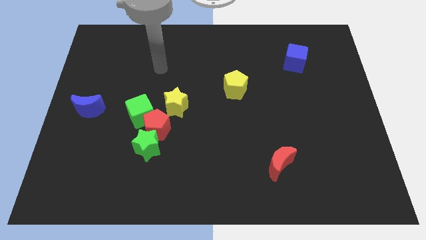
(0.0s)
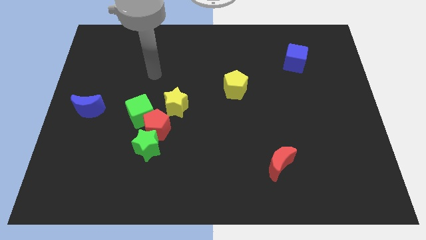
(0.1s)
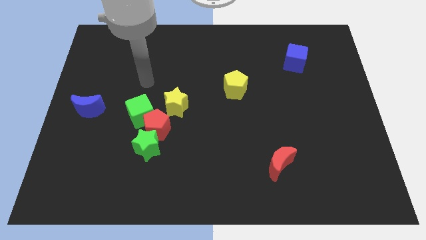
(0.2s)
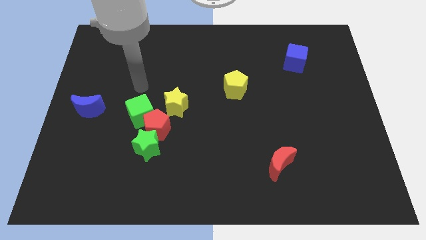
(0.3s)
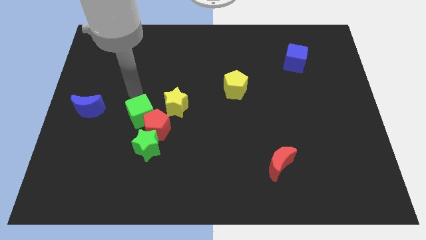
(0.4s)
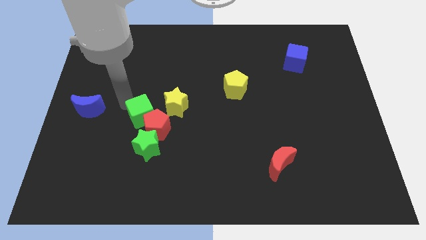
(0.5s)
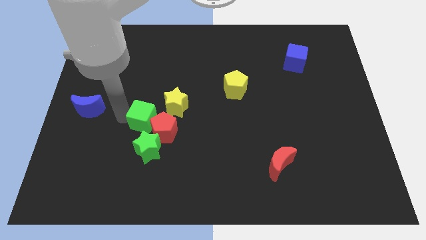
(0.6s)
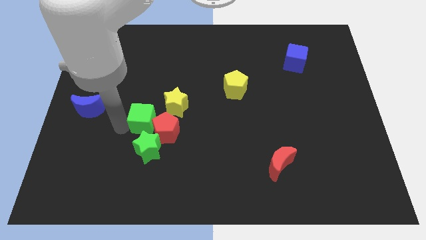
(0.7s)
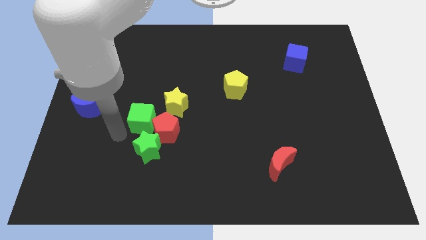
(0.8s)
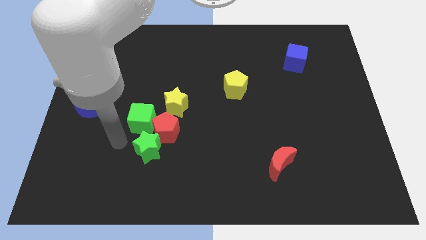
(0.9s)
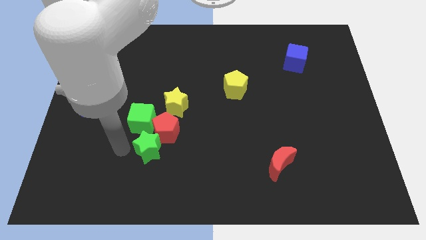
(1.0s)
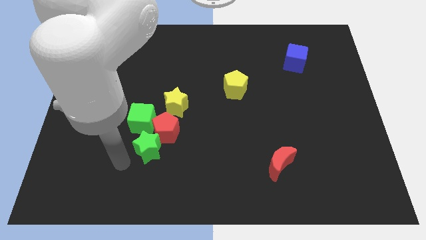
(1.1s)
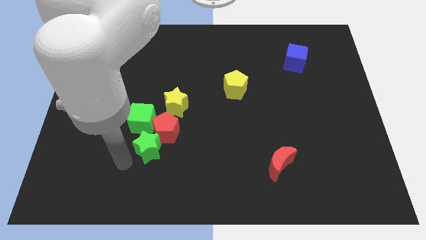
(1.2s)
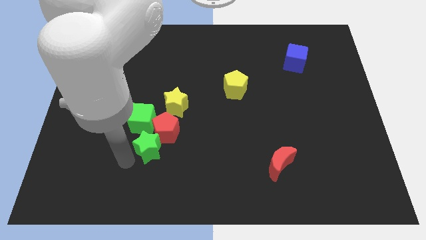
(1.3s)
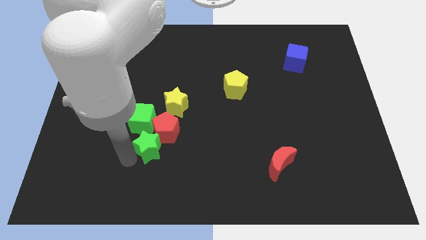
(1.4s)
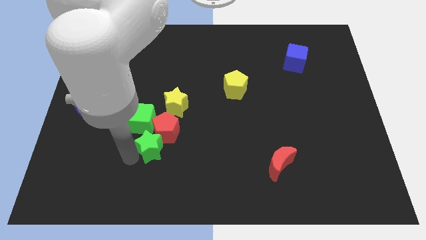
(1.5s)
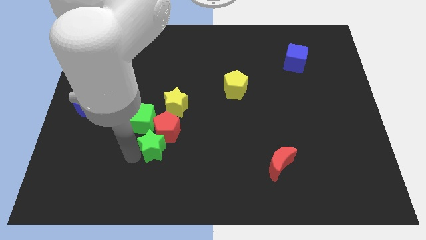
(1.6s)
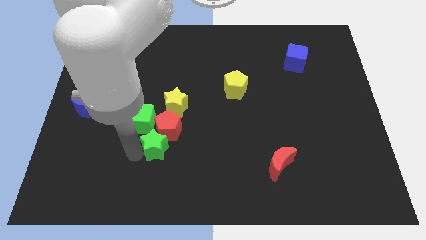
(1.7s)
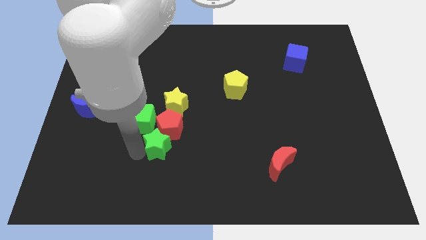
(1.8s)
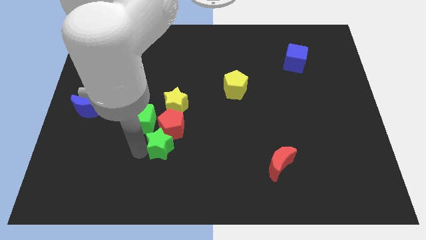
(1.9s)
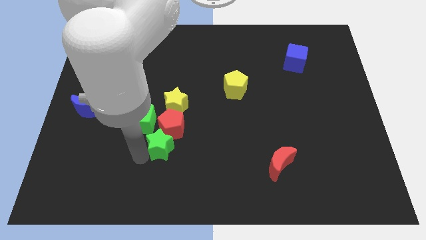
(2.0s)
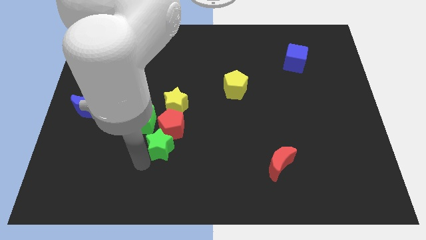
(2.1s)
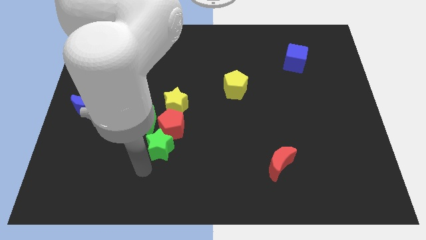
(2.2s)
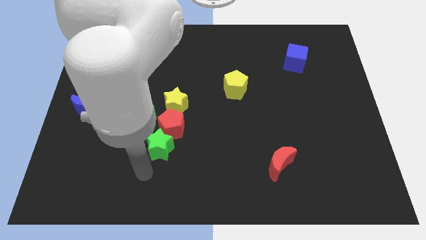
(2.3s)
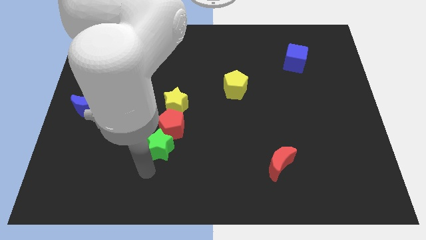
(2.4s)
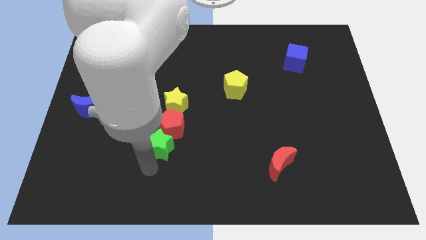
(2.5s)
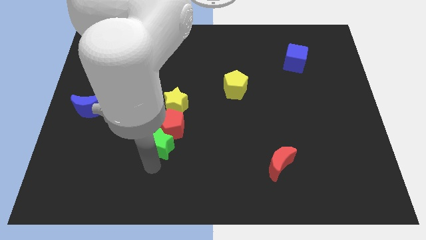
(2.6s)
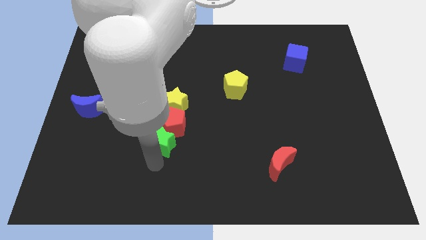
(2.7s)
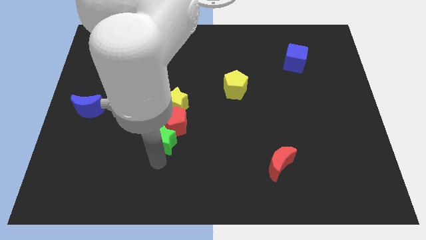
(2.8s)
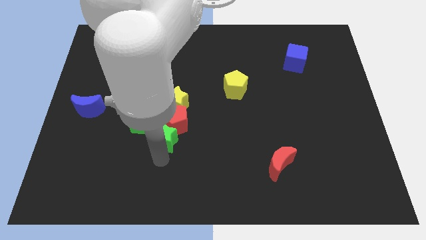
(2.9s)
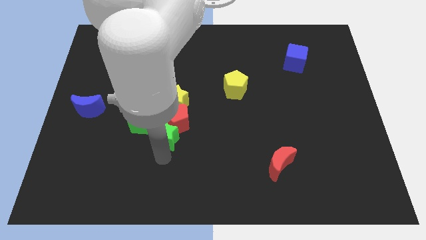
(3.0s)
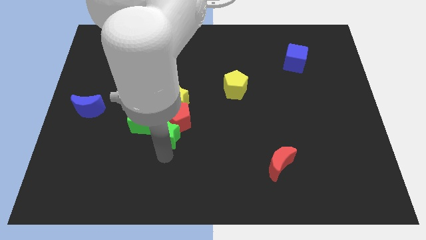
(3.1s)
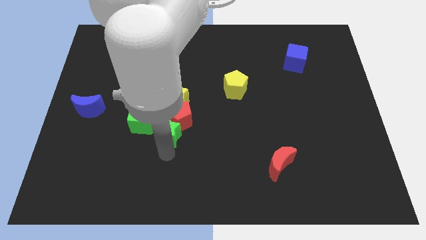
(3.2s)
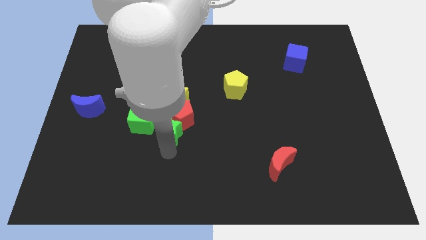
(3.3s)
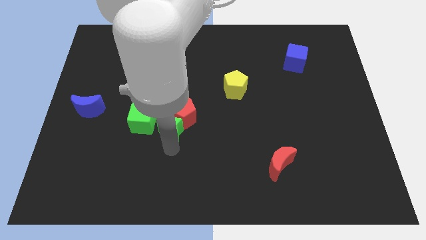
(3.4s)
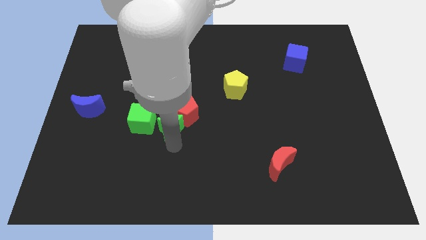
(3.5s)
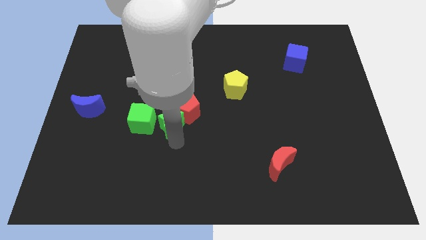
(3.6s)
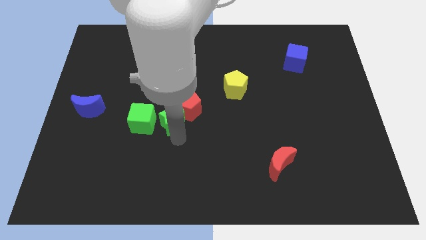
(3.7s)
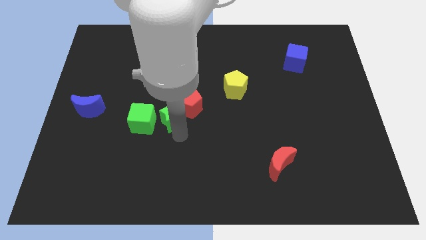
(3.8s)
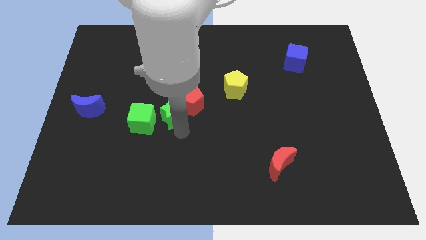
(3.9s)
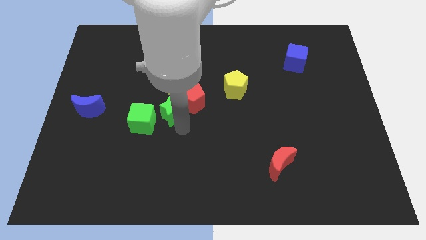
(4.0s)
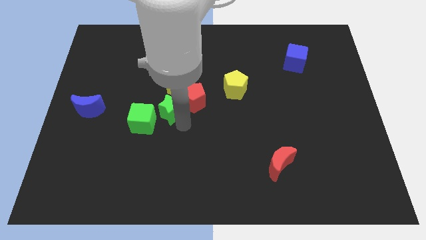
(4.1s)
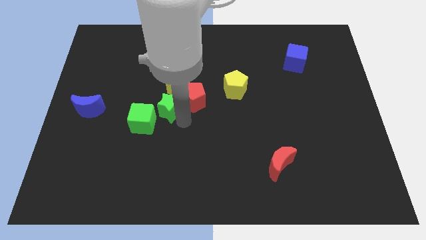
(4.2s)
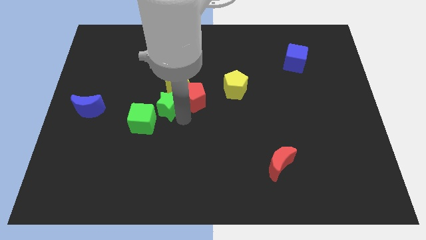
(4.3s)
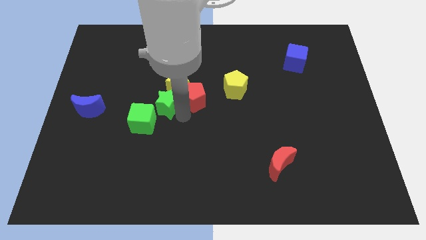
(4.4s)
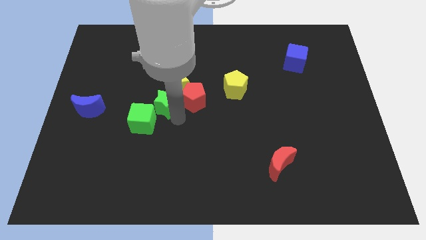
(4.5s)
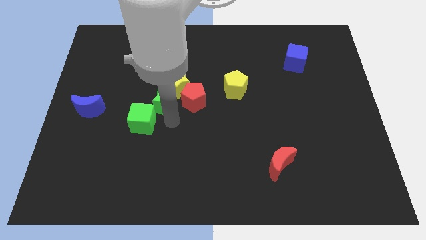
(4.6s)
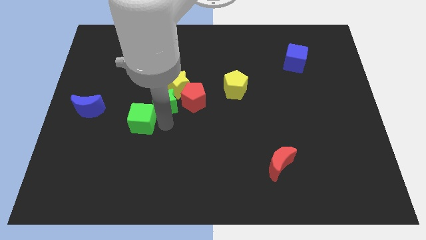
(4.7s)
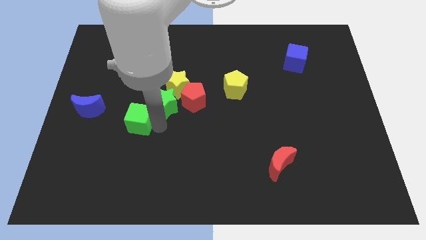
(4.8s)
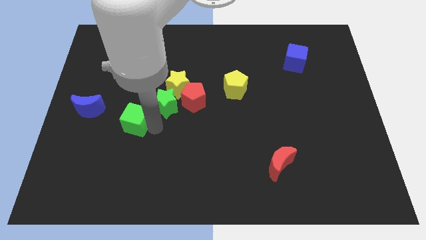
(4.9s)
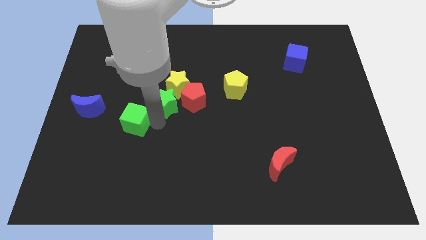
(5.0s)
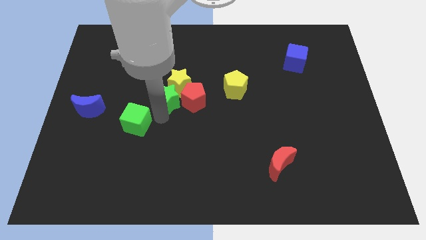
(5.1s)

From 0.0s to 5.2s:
move the green star to the yellow star

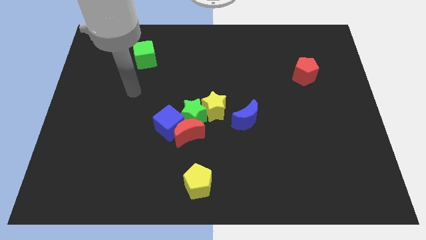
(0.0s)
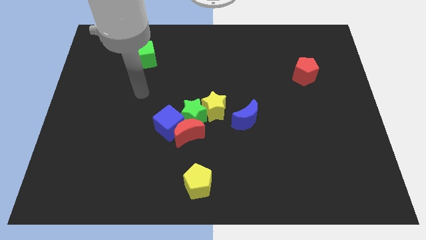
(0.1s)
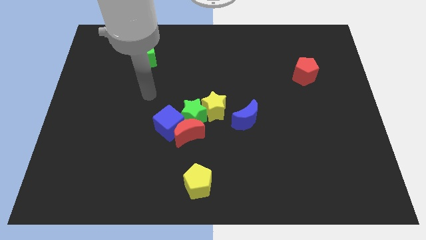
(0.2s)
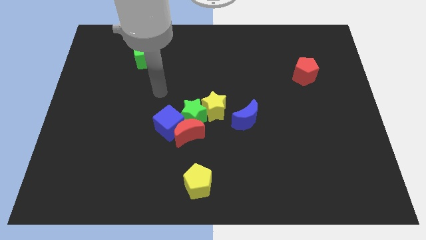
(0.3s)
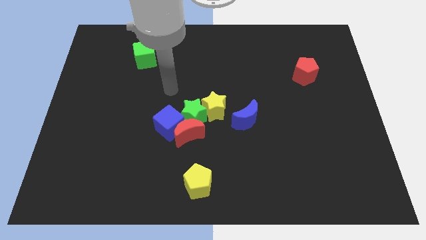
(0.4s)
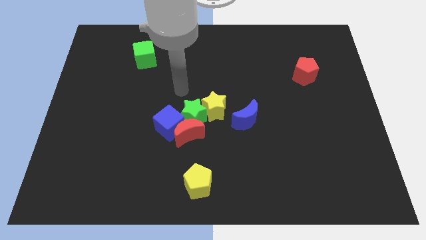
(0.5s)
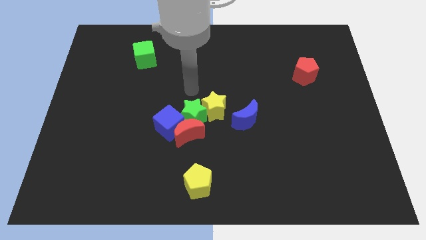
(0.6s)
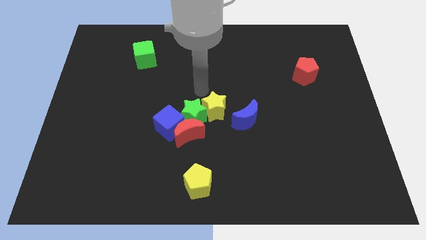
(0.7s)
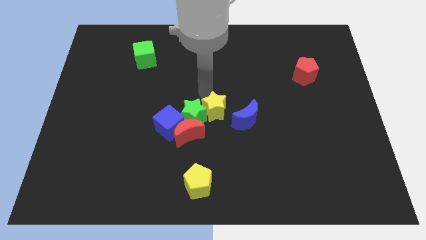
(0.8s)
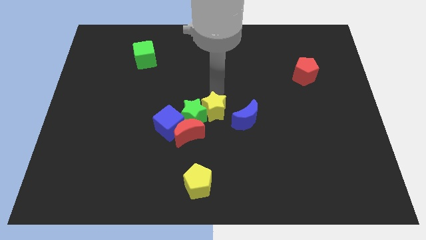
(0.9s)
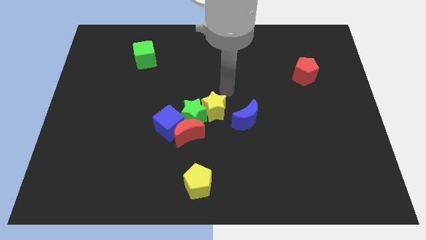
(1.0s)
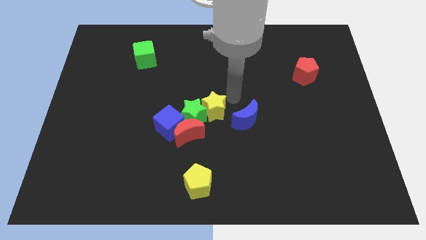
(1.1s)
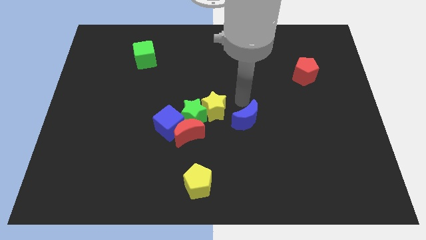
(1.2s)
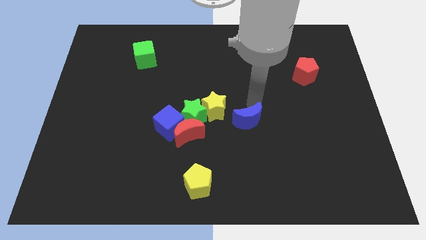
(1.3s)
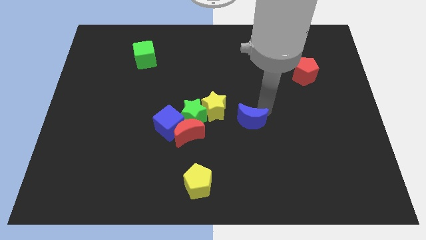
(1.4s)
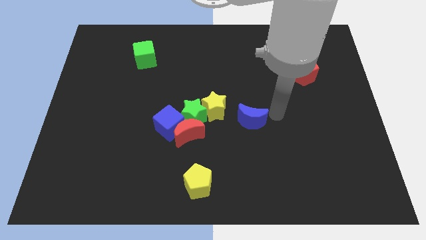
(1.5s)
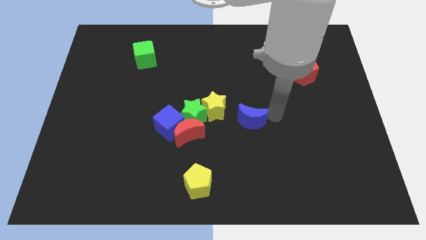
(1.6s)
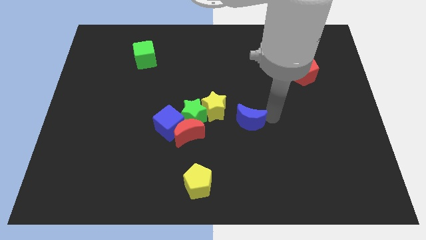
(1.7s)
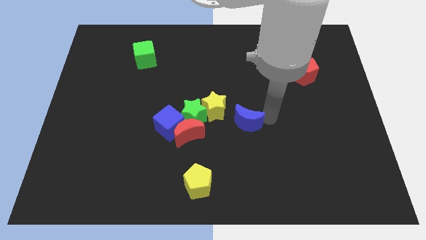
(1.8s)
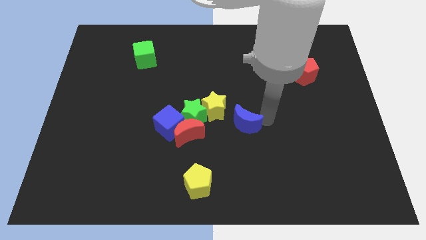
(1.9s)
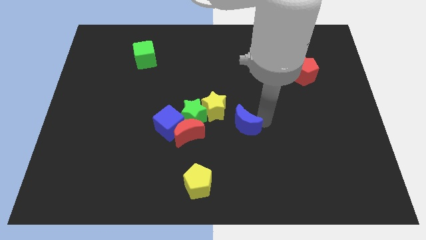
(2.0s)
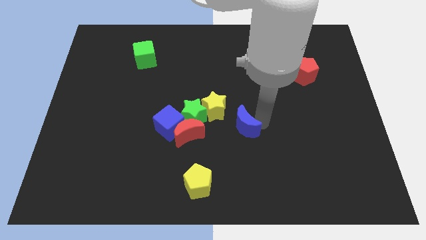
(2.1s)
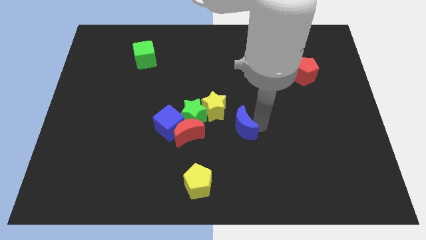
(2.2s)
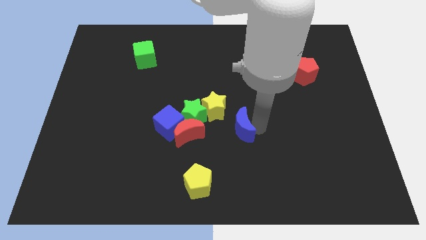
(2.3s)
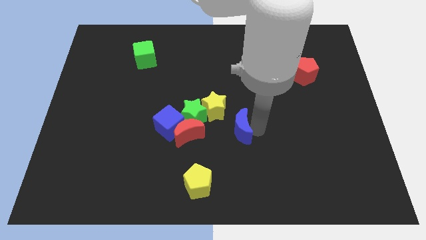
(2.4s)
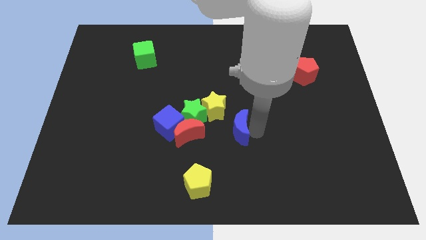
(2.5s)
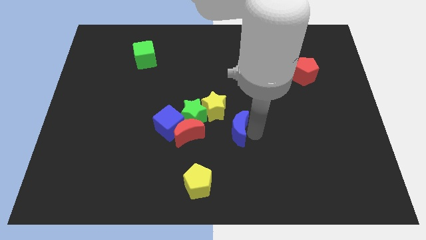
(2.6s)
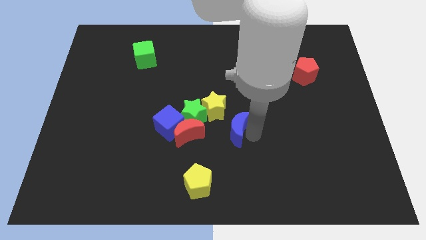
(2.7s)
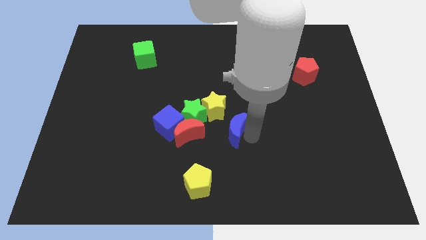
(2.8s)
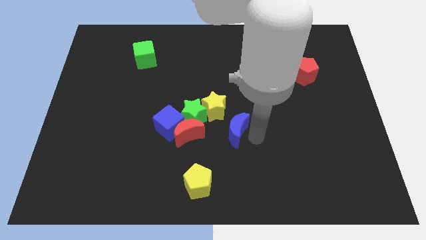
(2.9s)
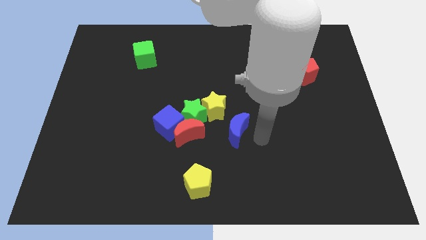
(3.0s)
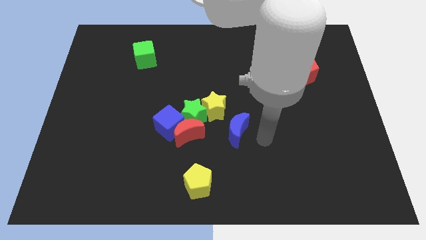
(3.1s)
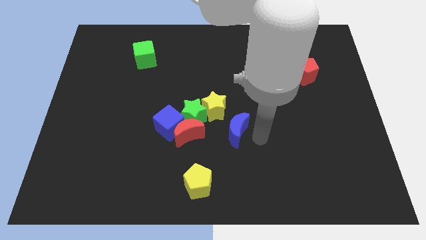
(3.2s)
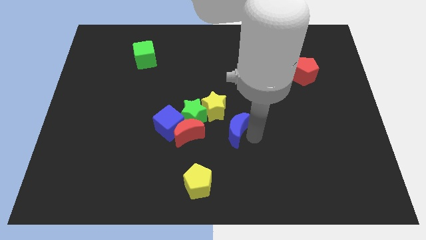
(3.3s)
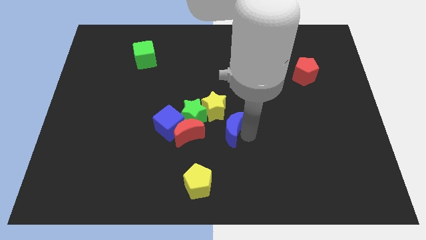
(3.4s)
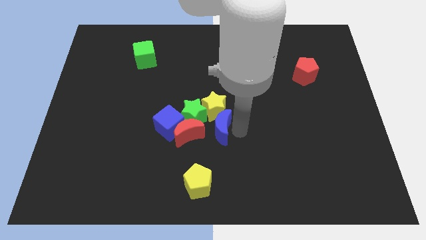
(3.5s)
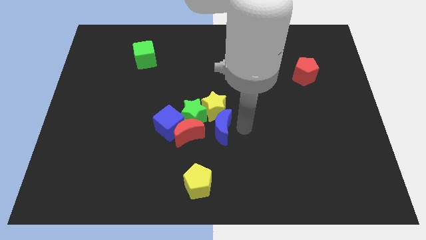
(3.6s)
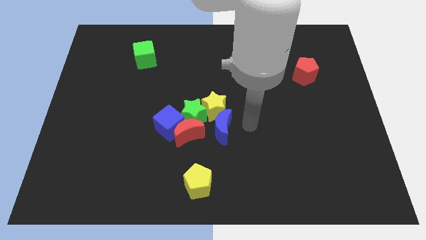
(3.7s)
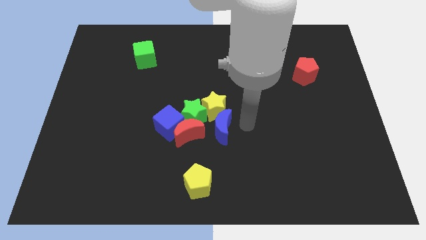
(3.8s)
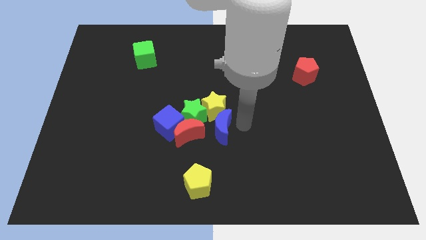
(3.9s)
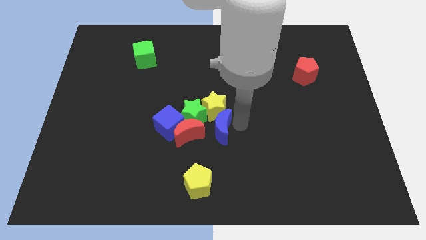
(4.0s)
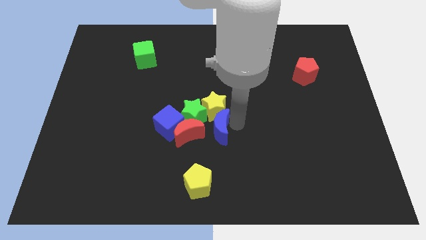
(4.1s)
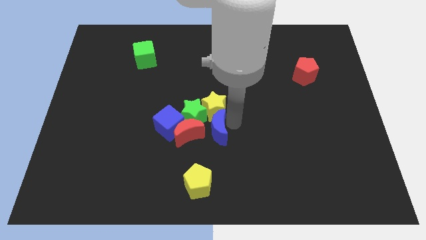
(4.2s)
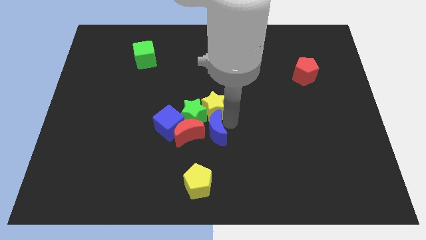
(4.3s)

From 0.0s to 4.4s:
push the blue moon close to the red moon
